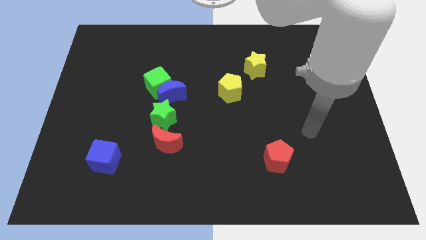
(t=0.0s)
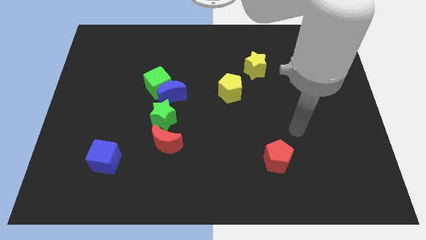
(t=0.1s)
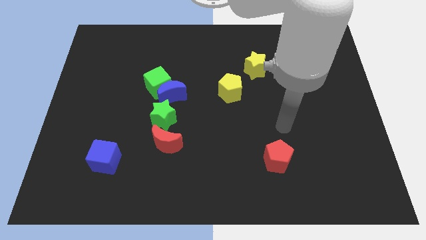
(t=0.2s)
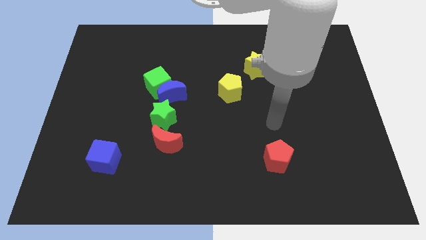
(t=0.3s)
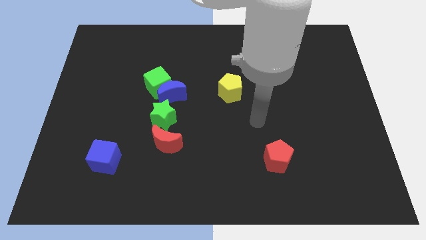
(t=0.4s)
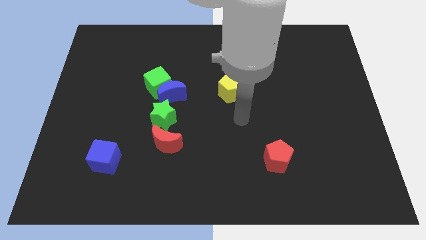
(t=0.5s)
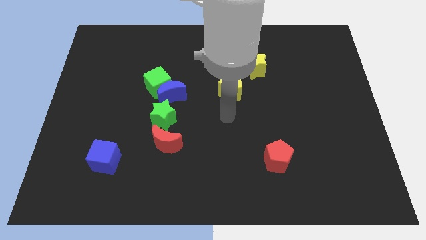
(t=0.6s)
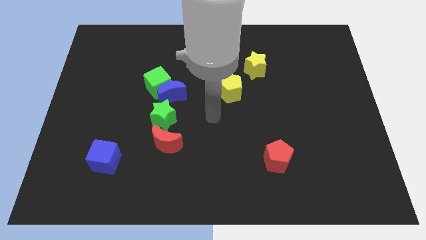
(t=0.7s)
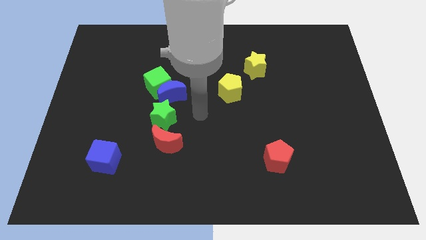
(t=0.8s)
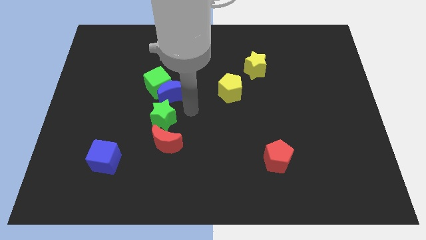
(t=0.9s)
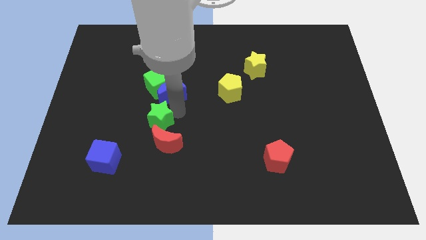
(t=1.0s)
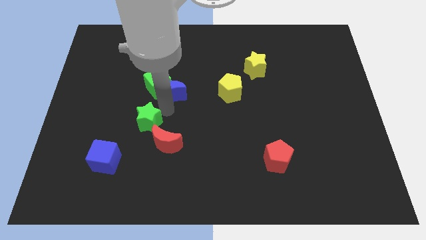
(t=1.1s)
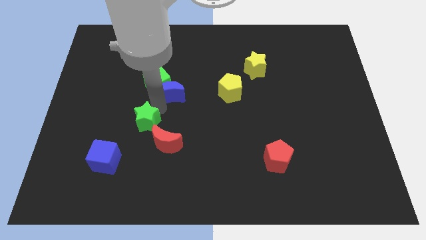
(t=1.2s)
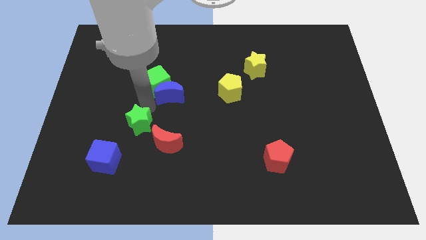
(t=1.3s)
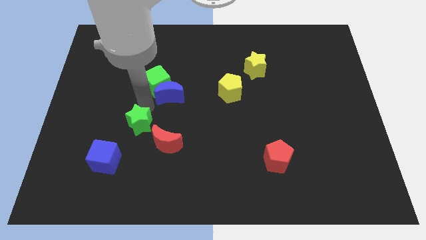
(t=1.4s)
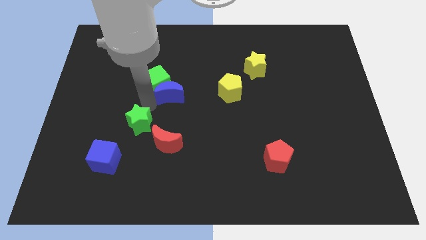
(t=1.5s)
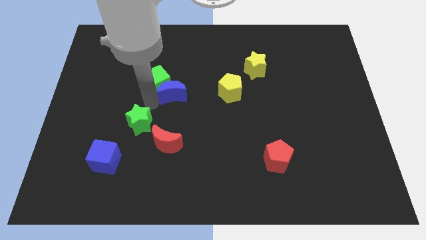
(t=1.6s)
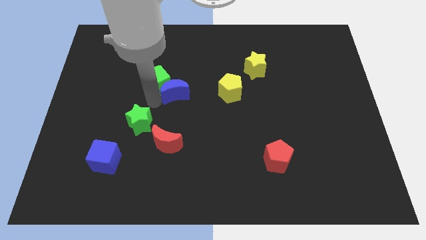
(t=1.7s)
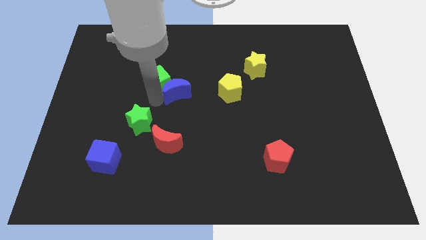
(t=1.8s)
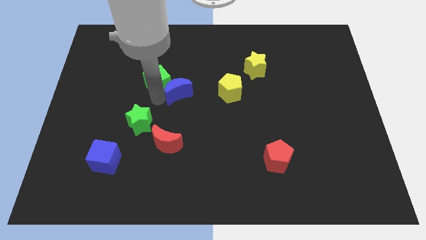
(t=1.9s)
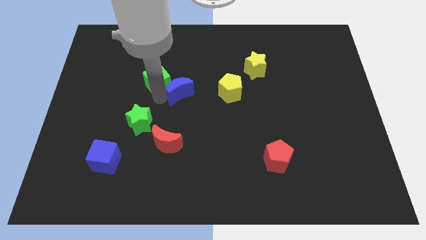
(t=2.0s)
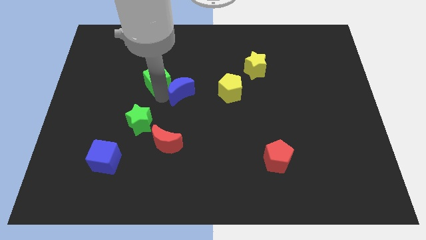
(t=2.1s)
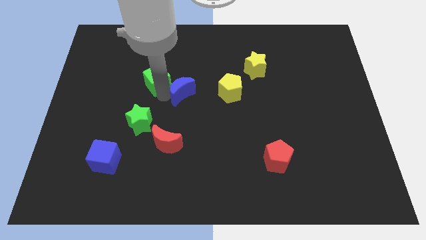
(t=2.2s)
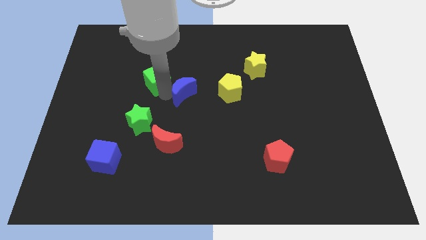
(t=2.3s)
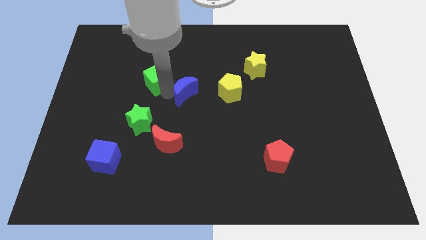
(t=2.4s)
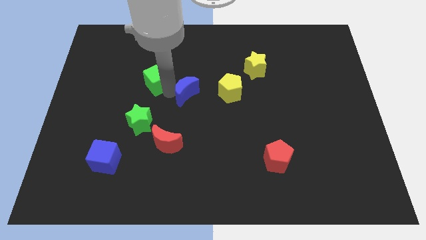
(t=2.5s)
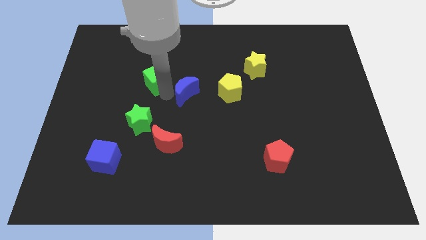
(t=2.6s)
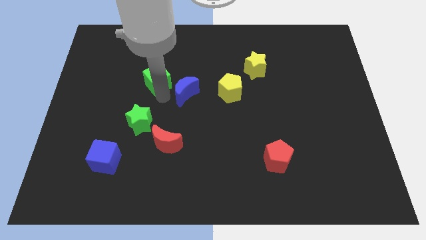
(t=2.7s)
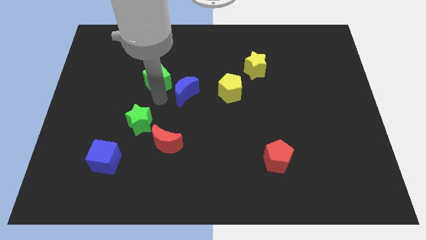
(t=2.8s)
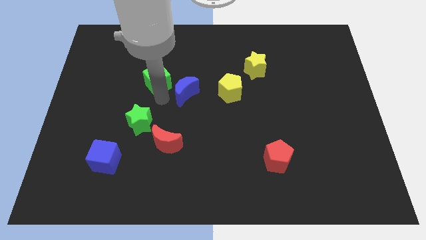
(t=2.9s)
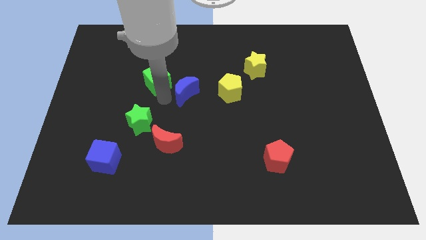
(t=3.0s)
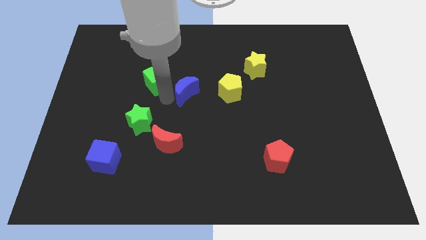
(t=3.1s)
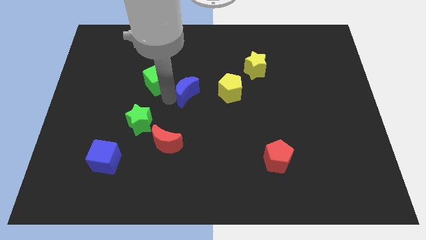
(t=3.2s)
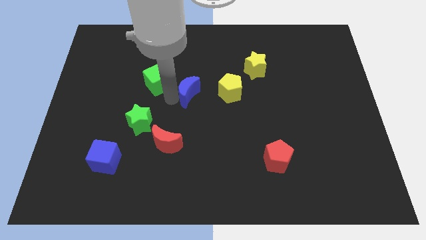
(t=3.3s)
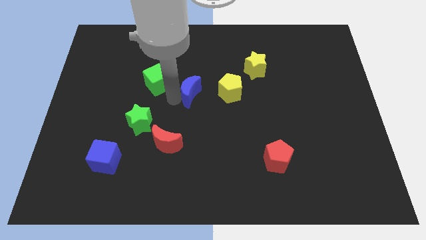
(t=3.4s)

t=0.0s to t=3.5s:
pull the blue moon apart from the green cube and green star

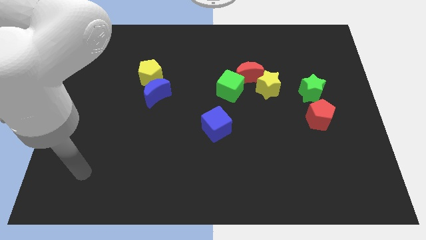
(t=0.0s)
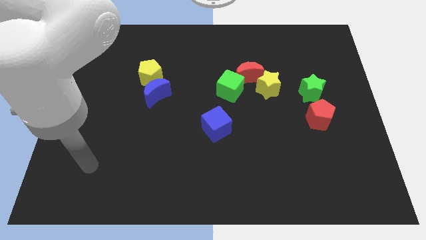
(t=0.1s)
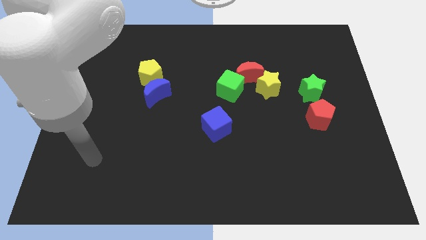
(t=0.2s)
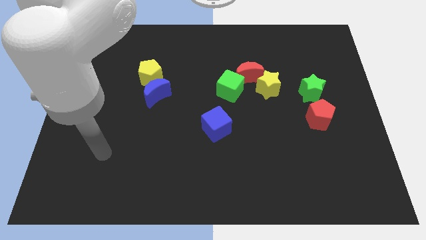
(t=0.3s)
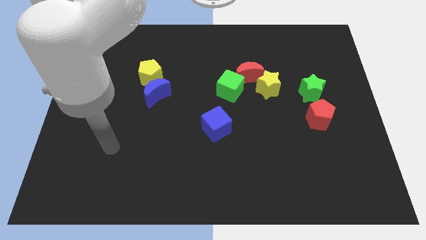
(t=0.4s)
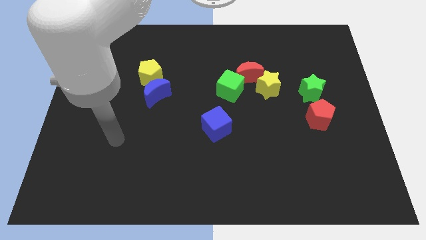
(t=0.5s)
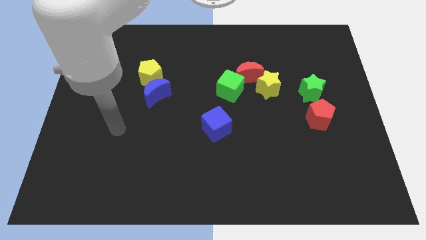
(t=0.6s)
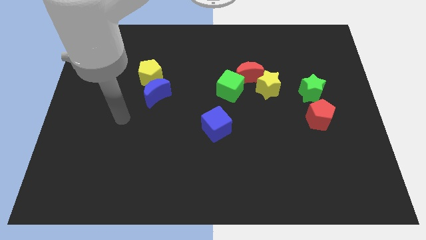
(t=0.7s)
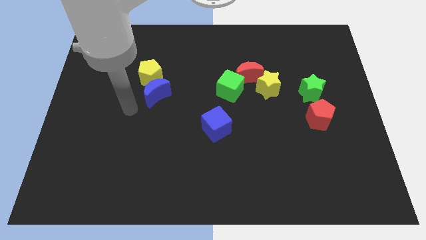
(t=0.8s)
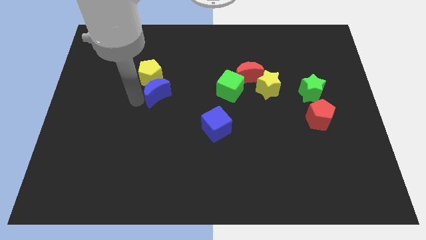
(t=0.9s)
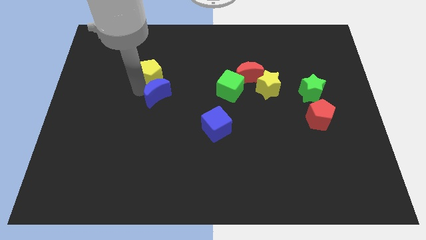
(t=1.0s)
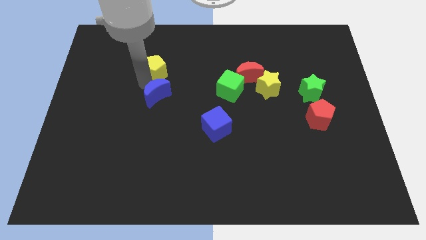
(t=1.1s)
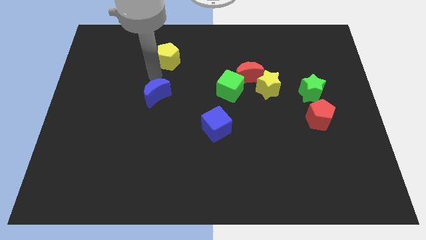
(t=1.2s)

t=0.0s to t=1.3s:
move the blue moon away from the yellow pentagon

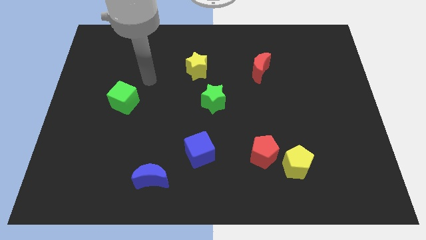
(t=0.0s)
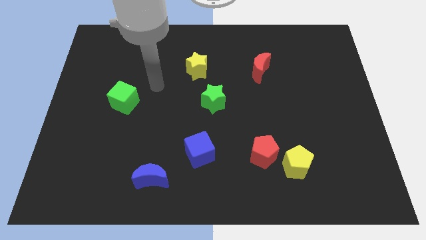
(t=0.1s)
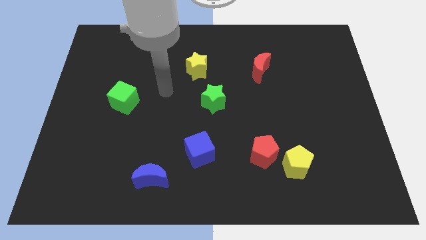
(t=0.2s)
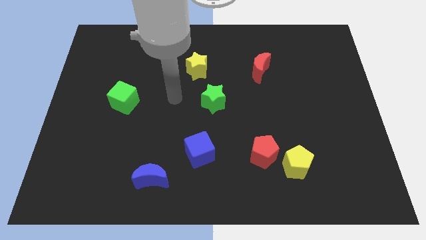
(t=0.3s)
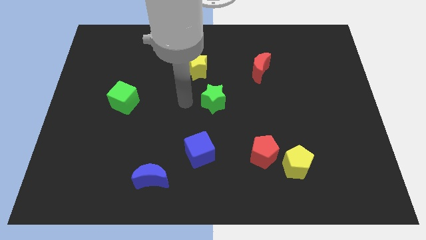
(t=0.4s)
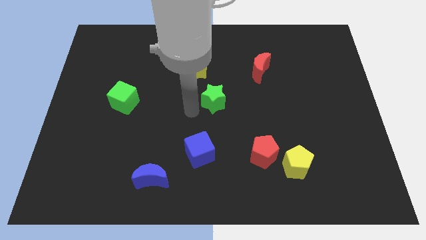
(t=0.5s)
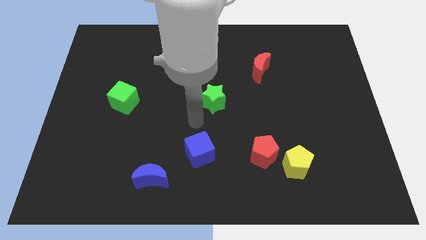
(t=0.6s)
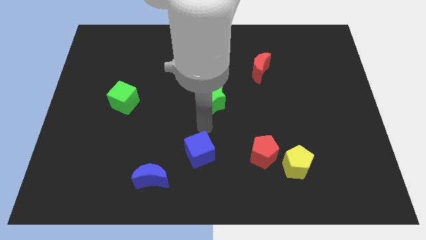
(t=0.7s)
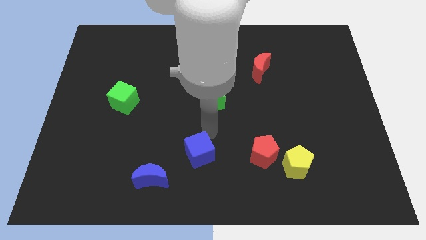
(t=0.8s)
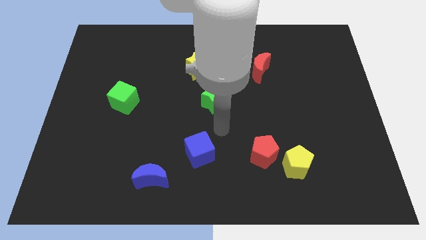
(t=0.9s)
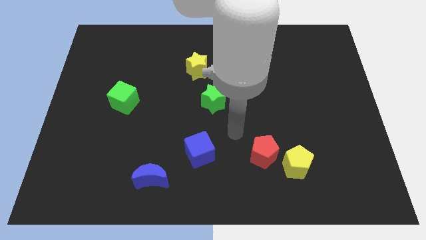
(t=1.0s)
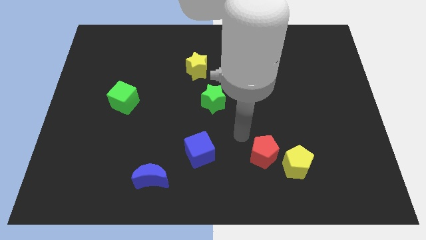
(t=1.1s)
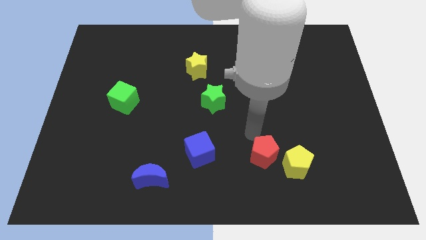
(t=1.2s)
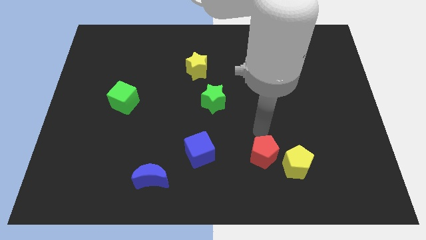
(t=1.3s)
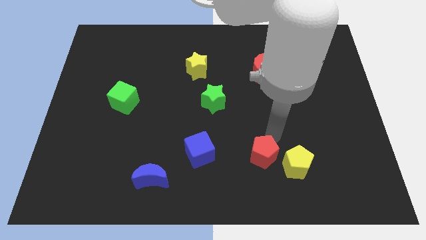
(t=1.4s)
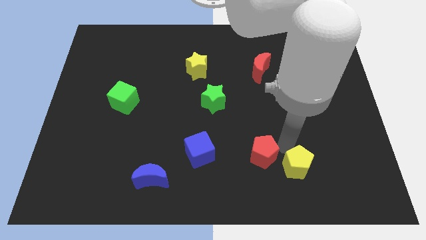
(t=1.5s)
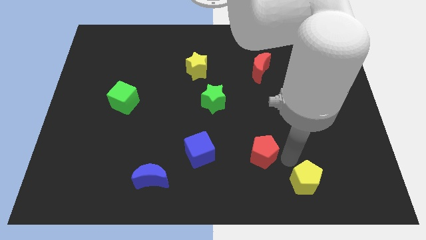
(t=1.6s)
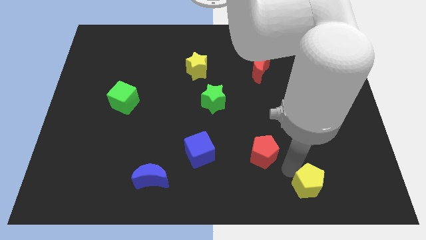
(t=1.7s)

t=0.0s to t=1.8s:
separate the red pentagon from the yellow pentagon

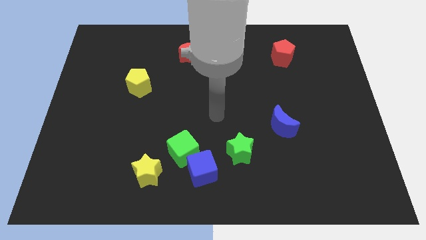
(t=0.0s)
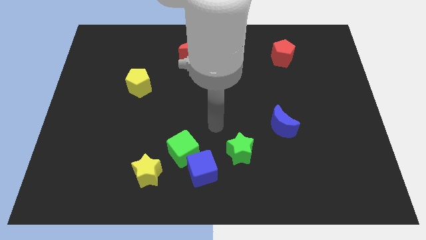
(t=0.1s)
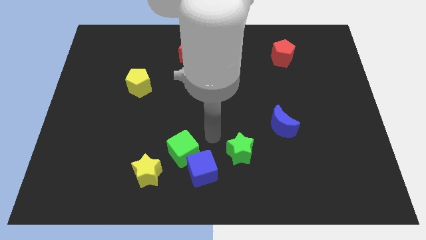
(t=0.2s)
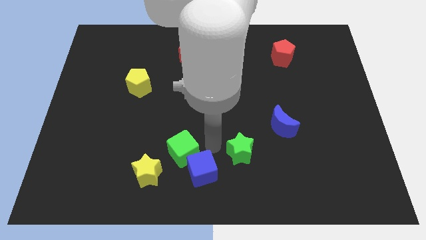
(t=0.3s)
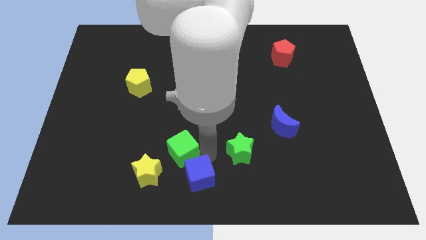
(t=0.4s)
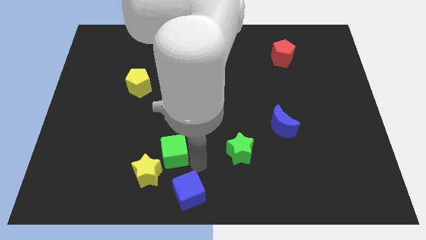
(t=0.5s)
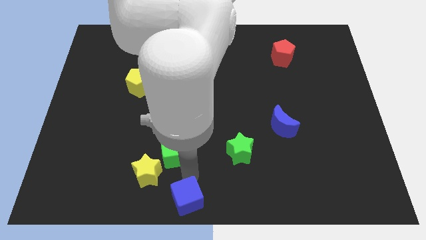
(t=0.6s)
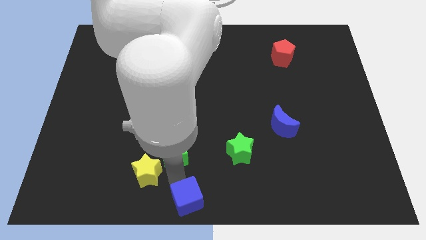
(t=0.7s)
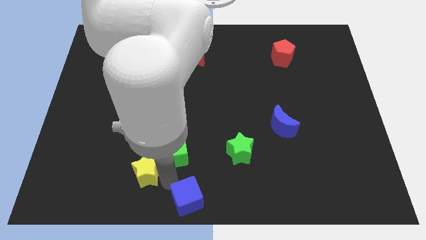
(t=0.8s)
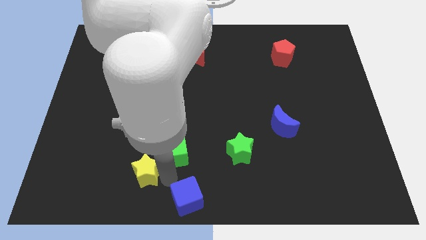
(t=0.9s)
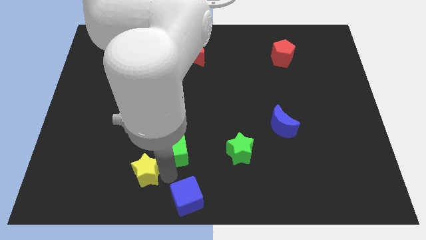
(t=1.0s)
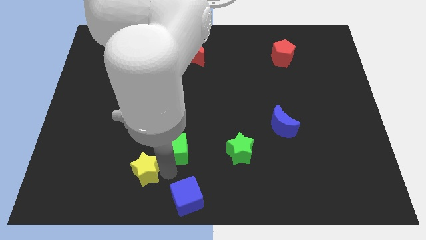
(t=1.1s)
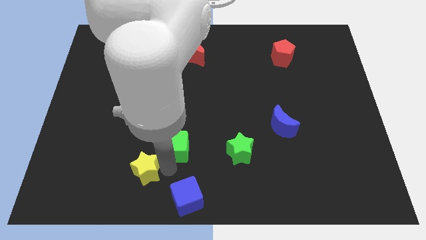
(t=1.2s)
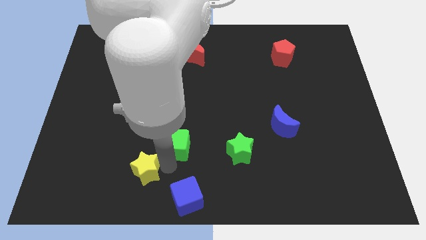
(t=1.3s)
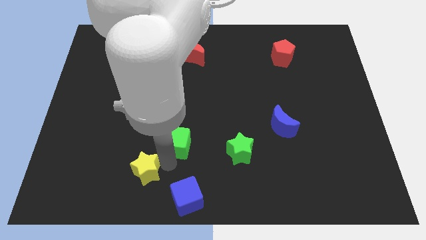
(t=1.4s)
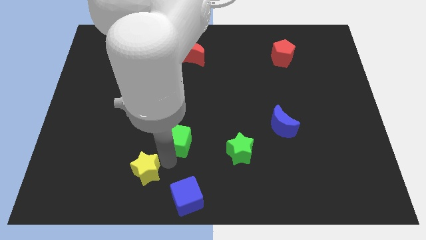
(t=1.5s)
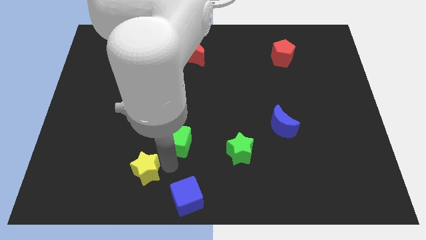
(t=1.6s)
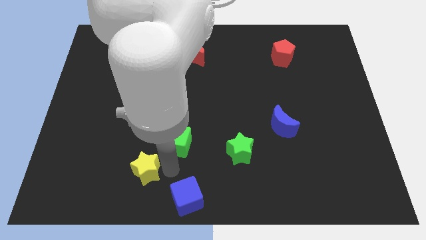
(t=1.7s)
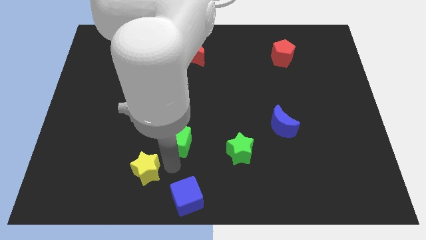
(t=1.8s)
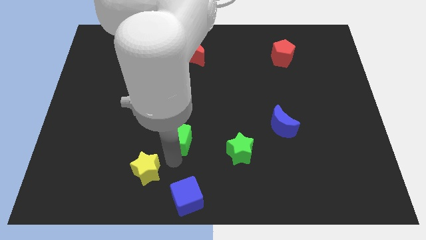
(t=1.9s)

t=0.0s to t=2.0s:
pull the green cube apart from the blue cube and yellow star

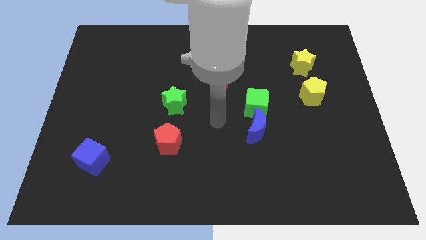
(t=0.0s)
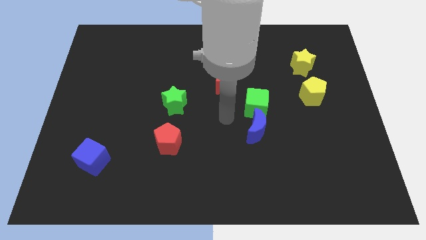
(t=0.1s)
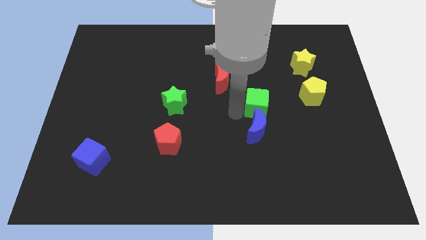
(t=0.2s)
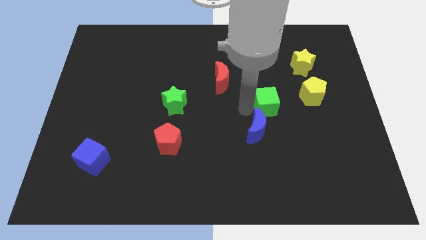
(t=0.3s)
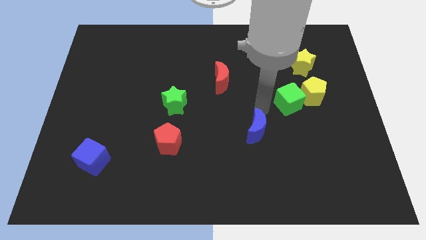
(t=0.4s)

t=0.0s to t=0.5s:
pull the blue moon apart from the green cube

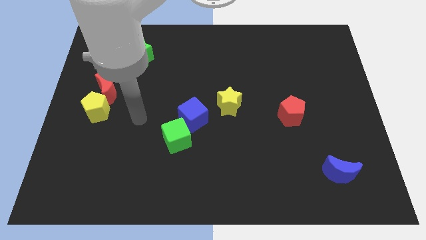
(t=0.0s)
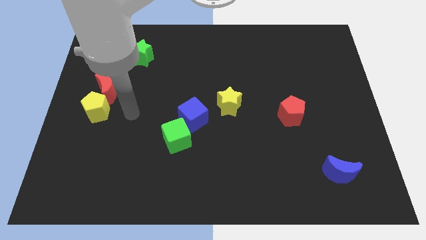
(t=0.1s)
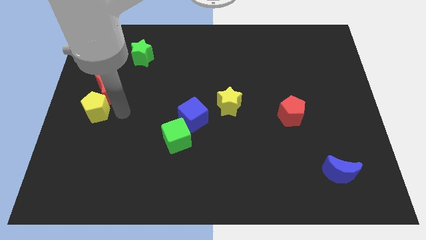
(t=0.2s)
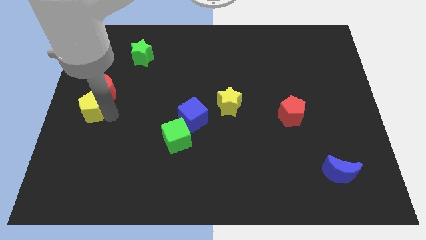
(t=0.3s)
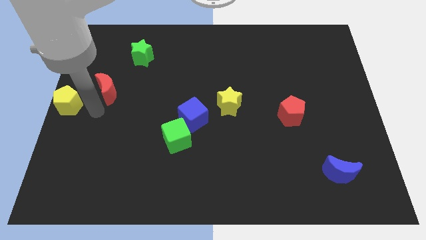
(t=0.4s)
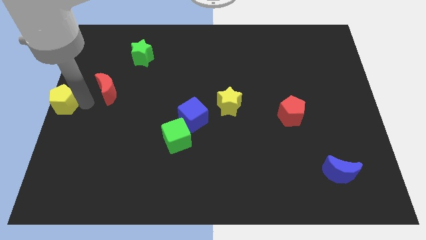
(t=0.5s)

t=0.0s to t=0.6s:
pull the red moon apart from the yellow pentagon
